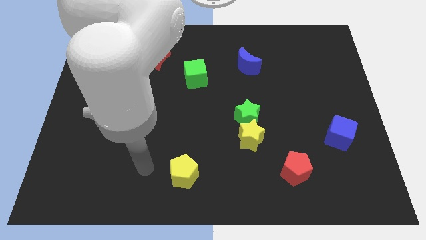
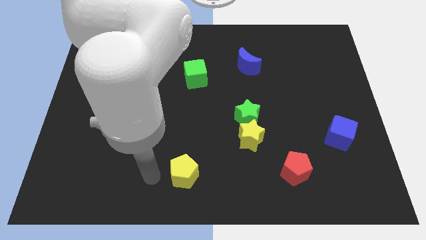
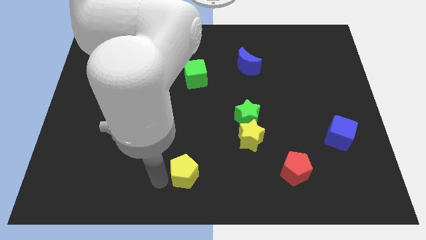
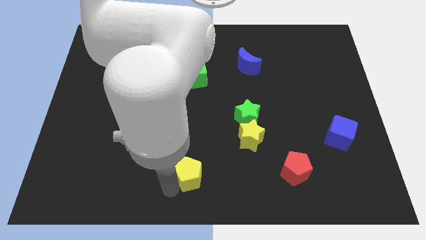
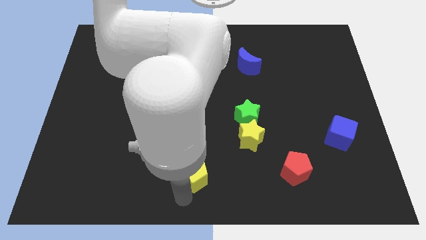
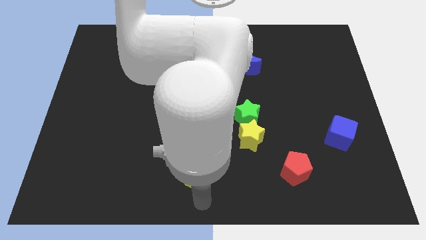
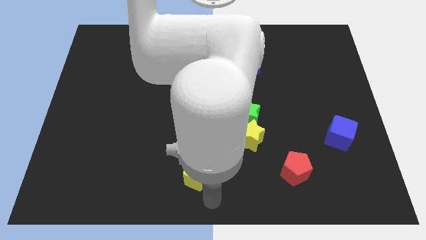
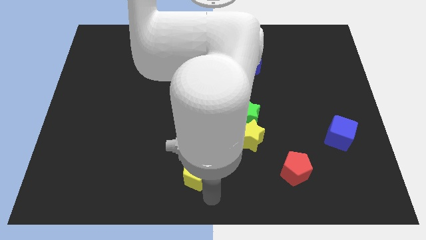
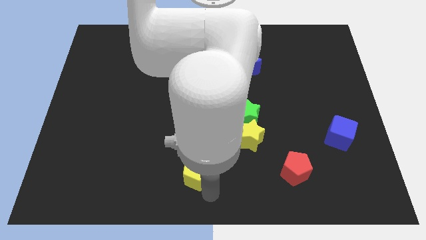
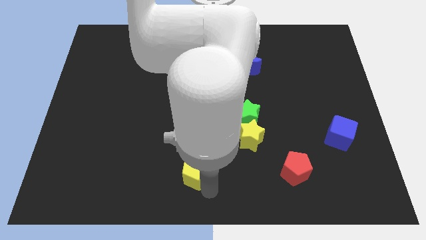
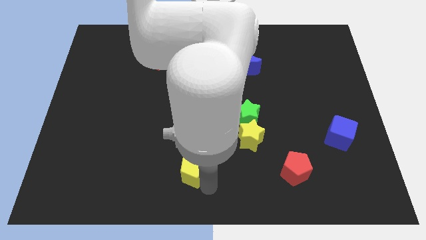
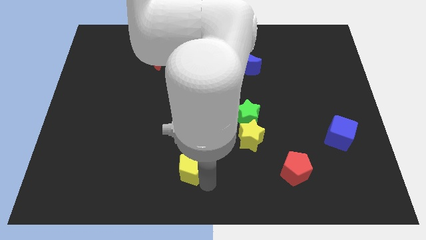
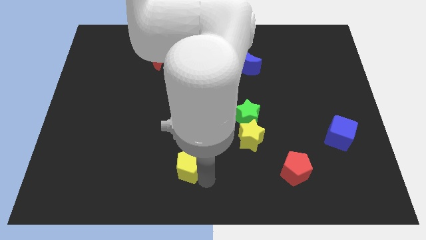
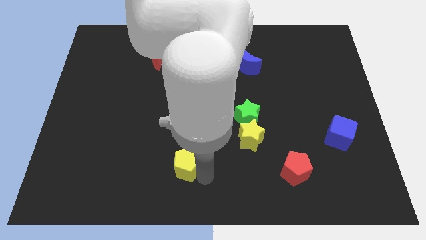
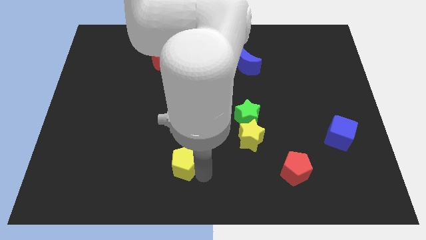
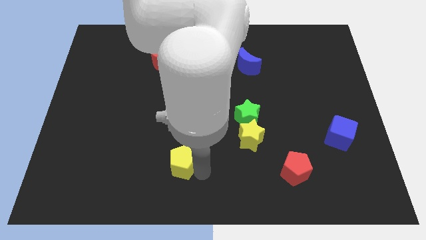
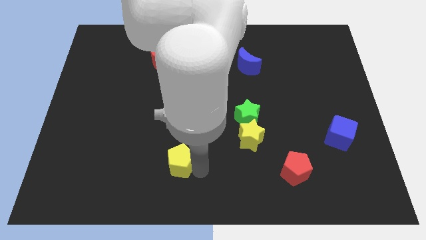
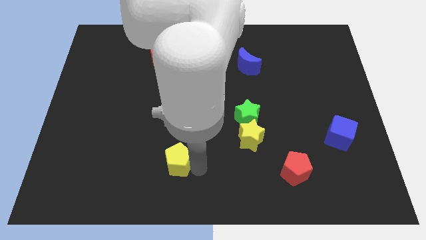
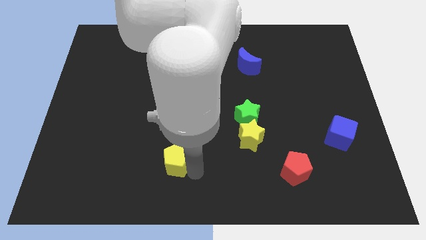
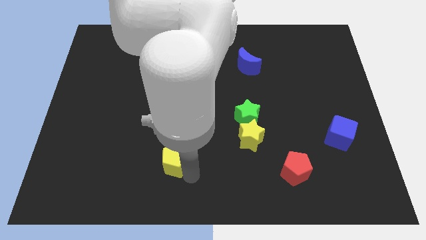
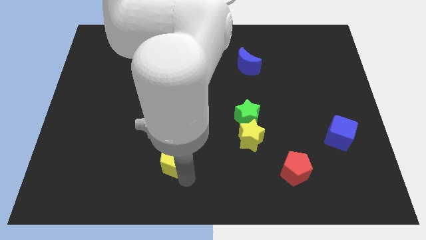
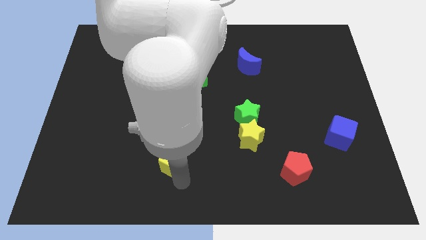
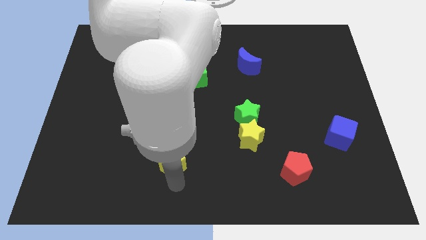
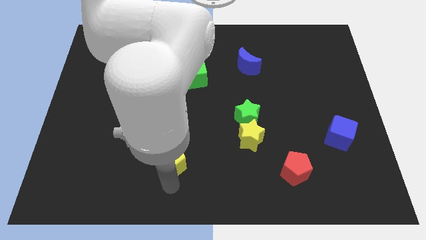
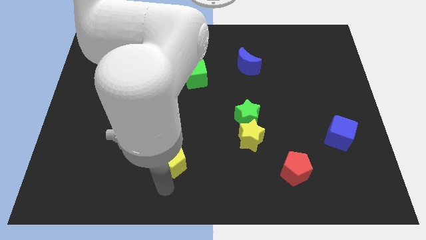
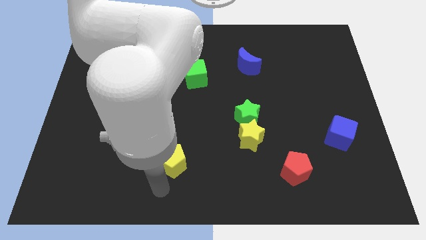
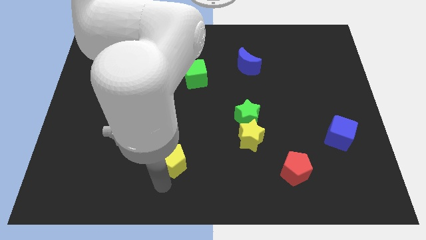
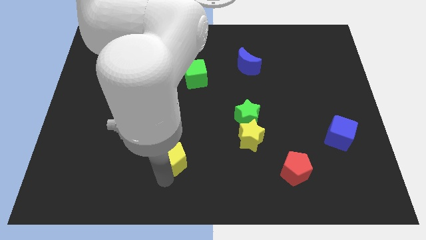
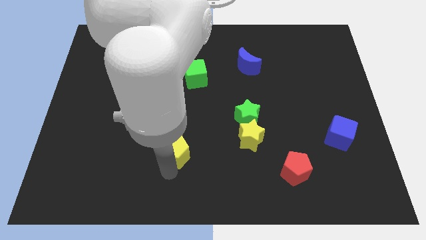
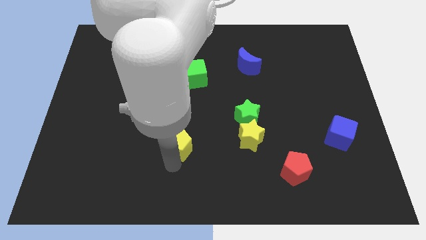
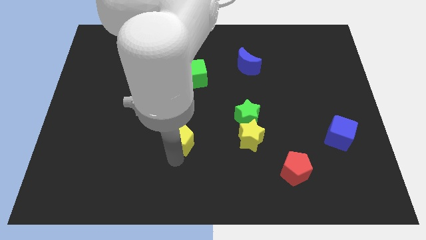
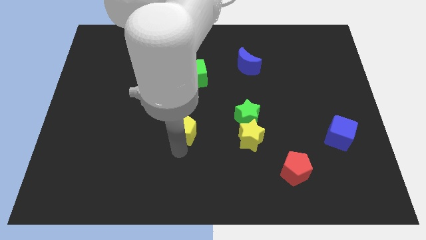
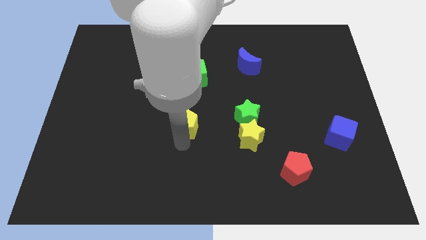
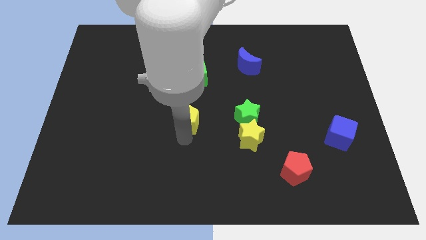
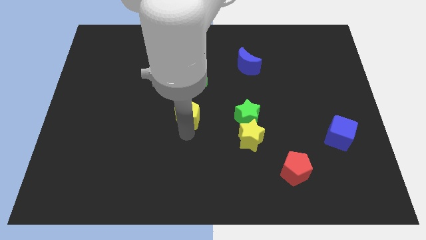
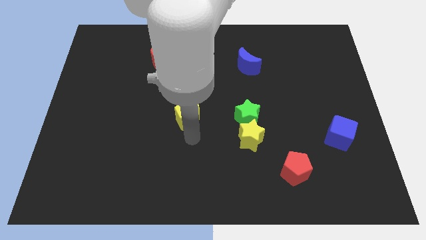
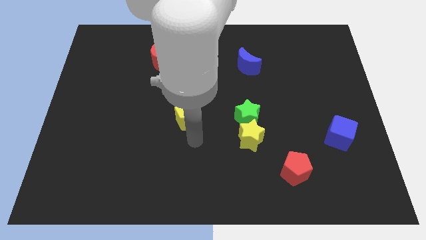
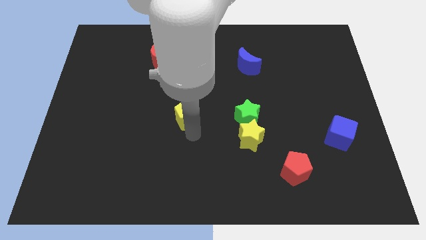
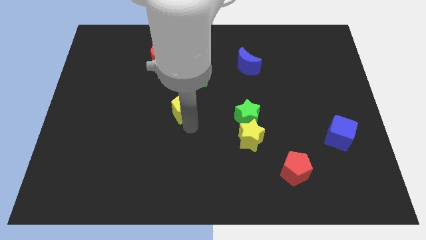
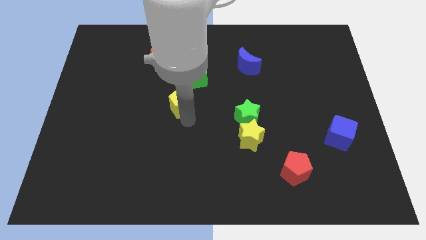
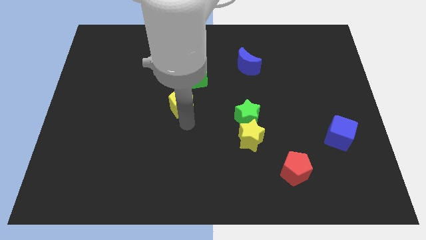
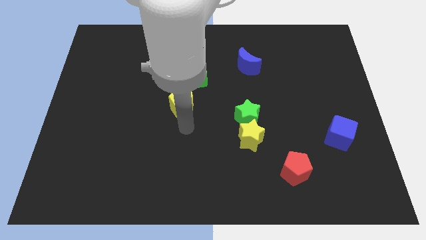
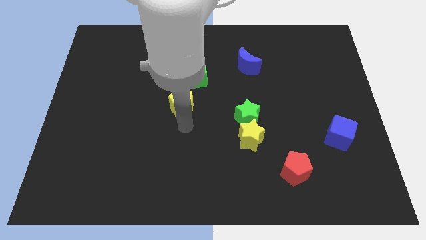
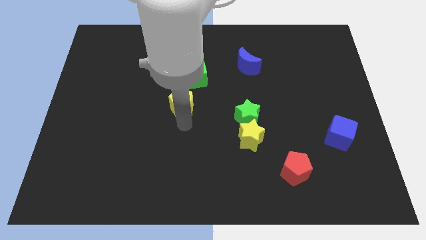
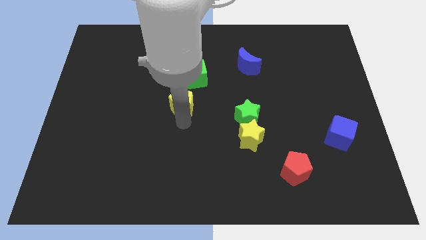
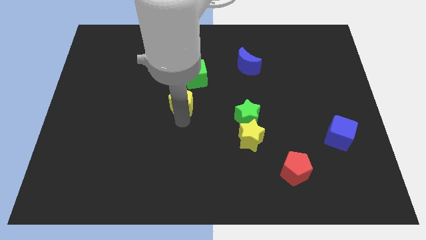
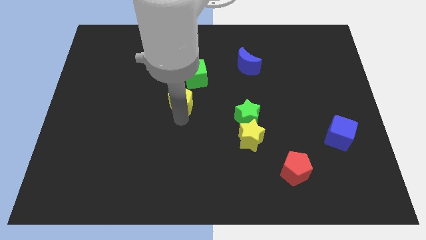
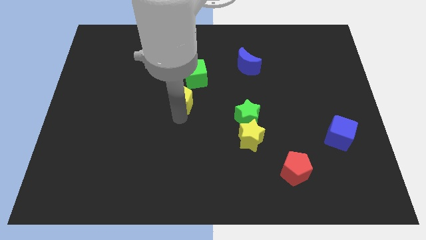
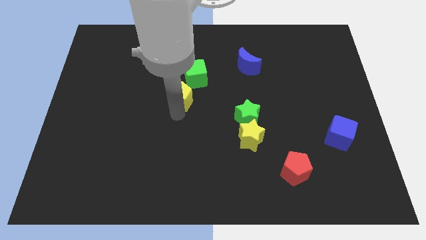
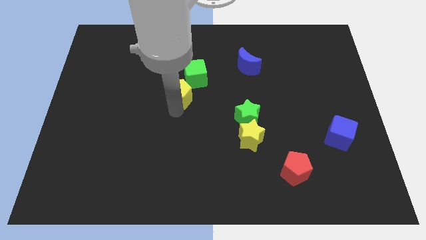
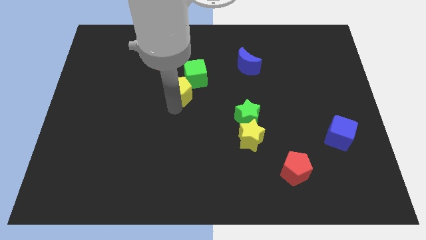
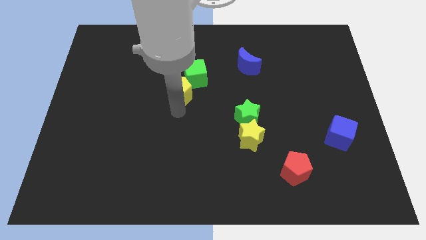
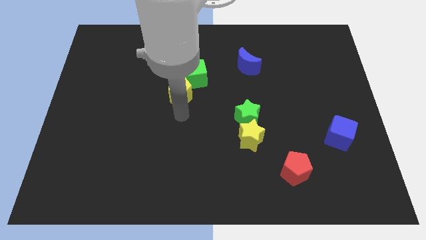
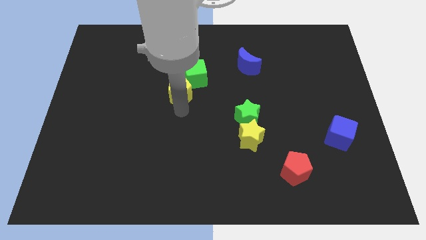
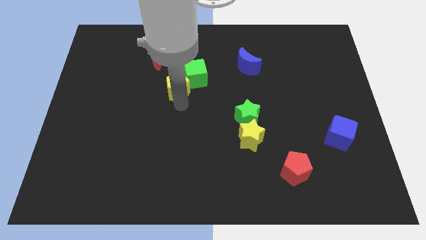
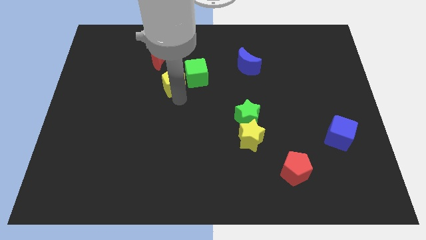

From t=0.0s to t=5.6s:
slide the yellow pentagon diagonally down and to the right of the red moon

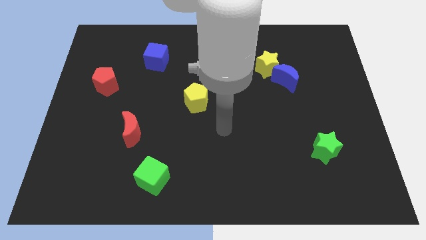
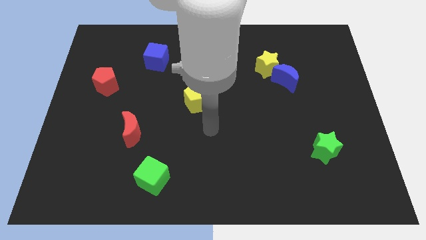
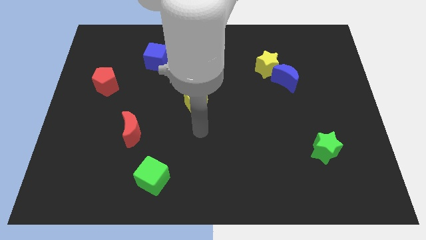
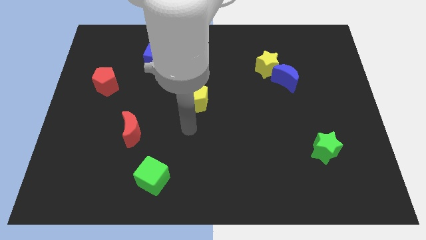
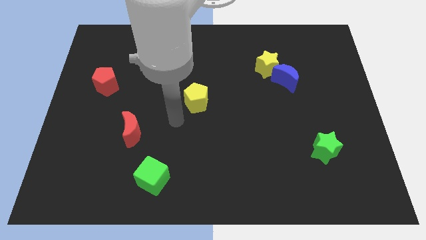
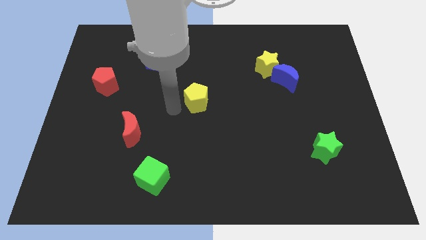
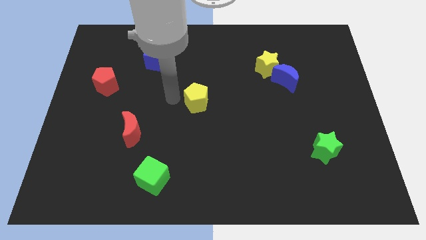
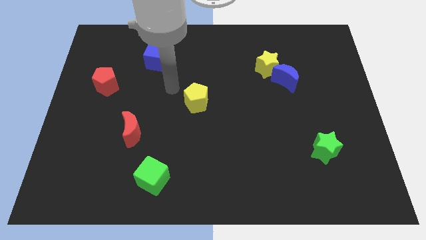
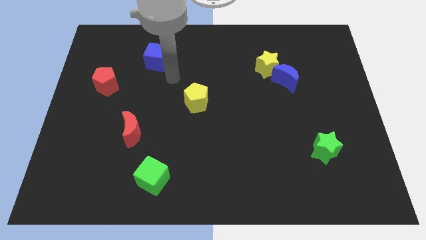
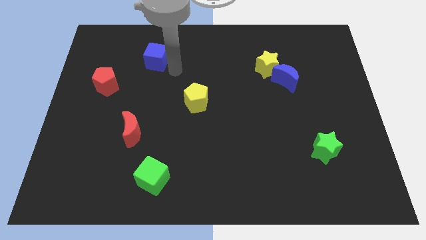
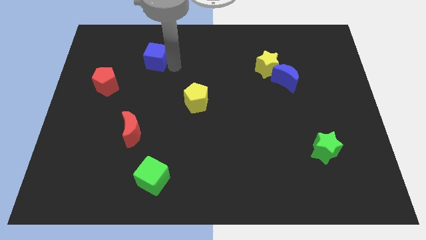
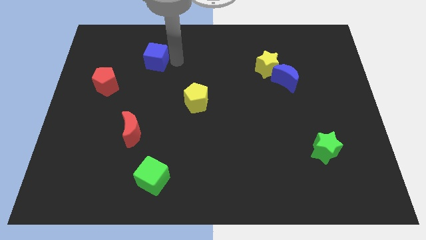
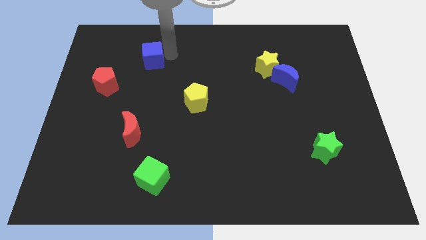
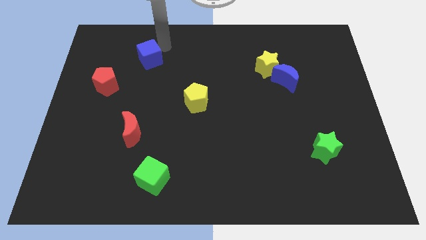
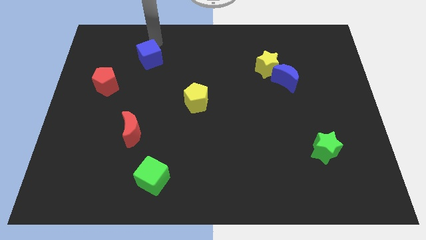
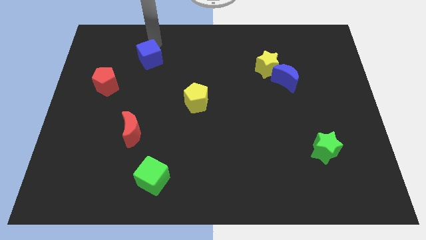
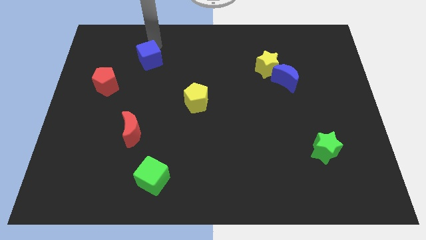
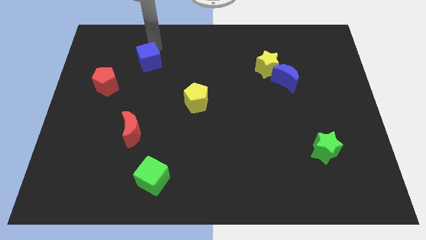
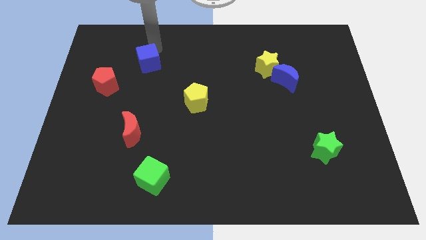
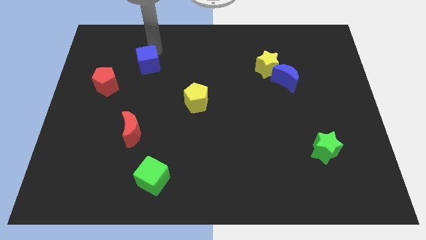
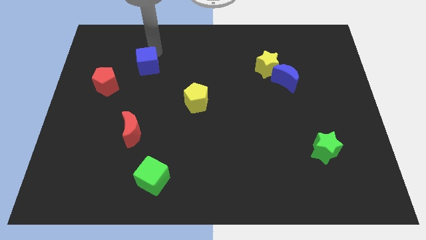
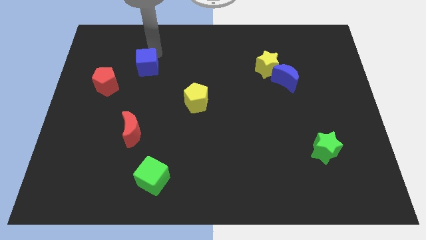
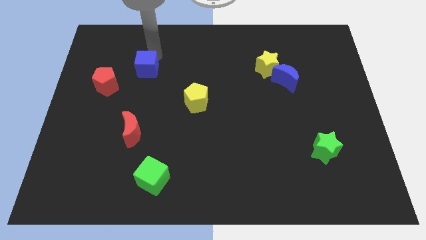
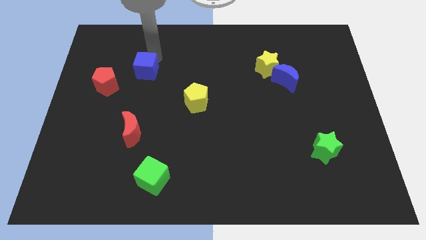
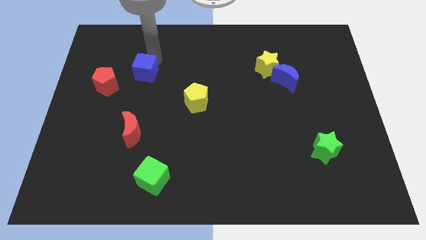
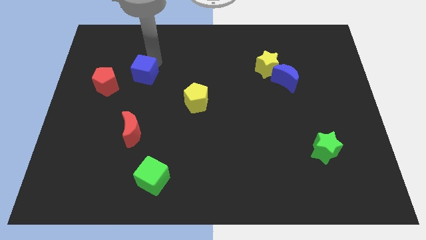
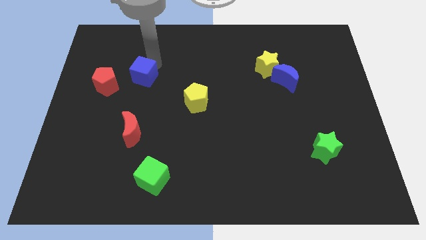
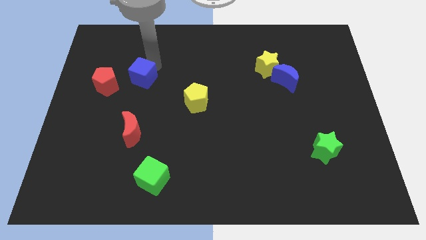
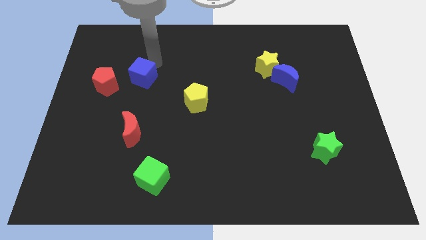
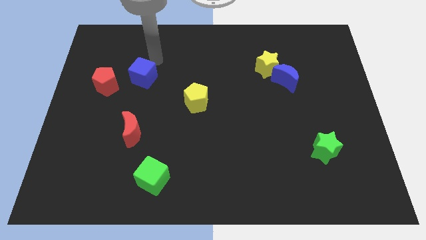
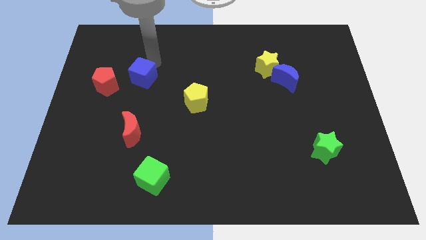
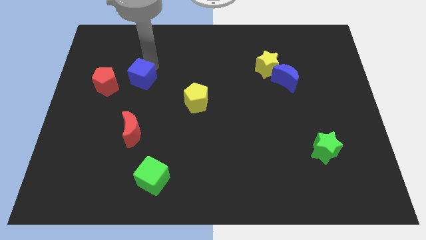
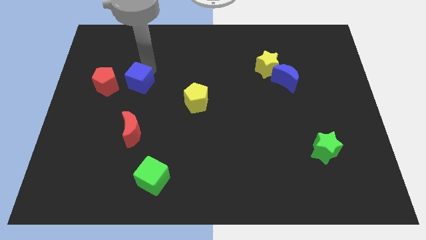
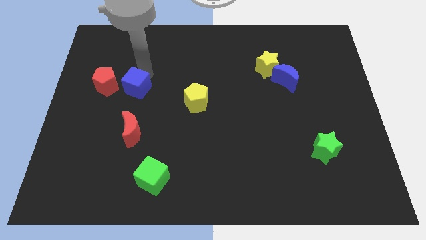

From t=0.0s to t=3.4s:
put the blue cube to the bottom right side of the red pentagon
